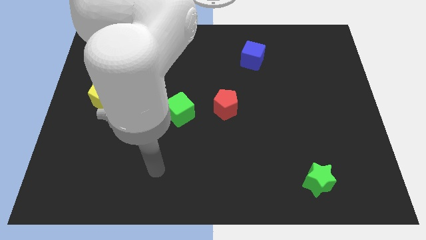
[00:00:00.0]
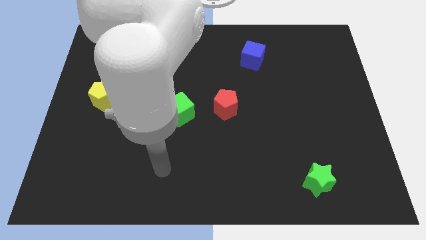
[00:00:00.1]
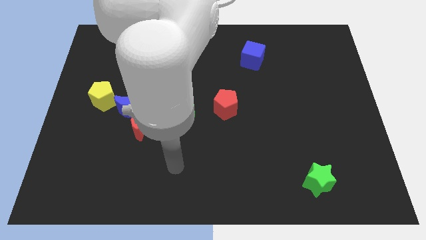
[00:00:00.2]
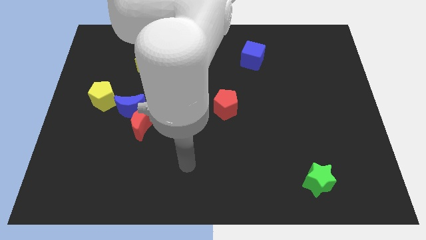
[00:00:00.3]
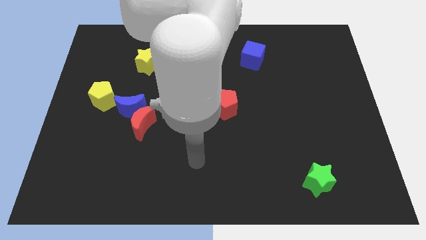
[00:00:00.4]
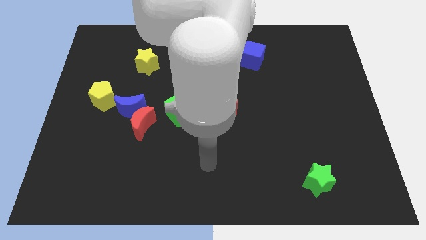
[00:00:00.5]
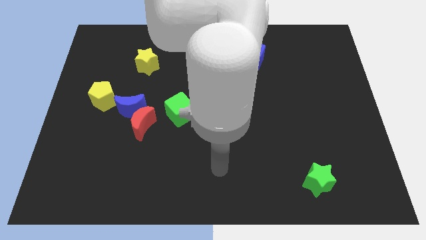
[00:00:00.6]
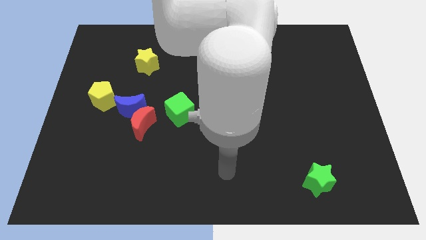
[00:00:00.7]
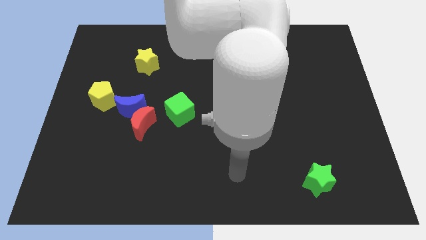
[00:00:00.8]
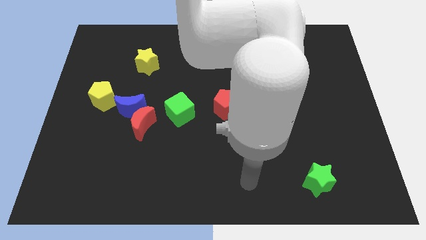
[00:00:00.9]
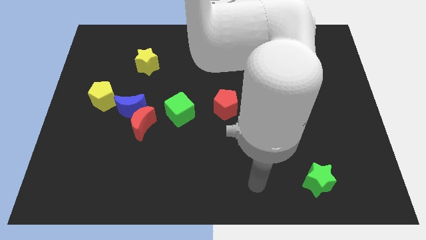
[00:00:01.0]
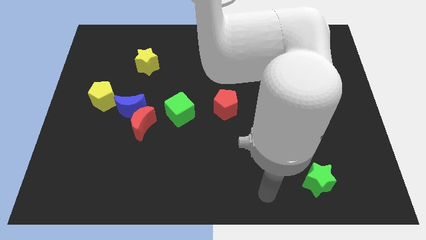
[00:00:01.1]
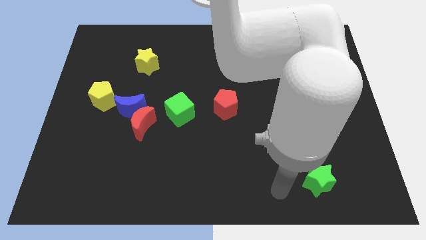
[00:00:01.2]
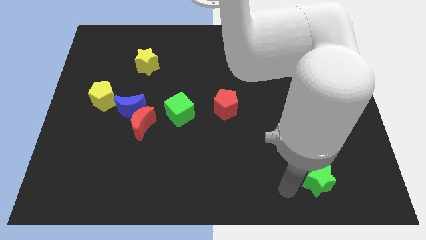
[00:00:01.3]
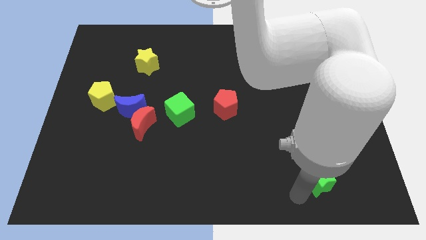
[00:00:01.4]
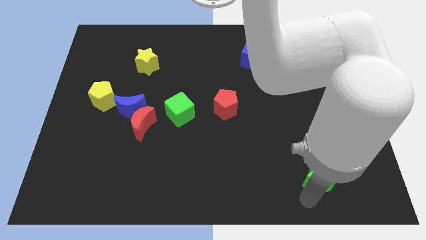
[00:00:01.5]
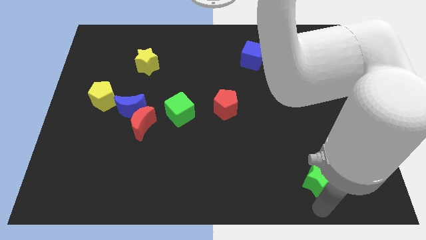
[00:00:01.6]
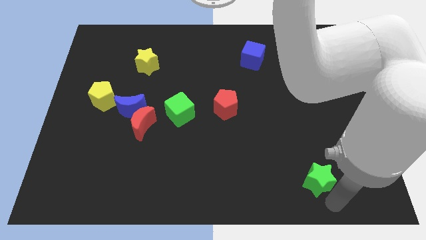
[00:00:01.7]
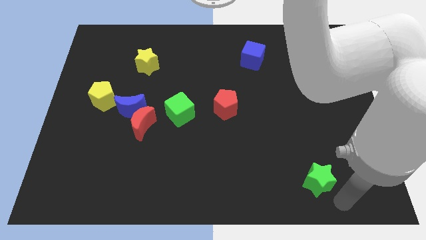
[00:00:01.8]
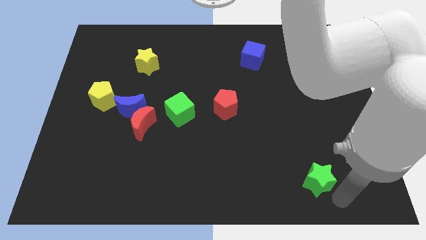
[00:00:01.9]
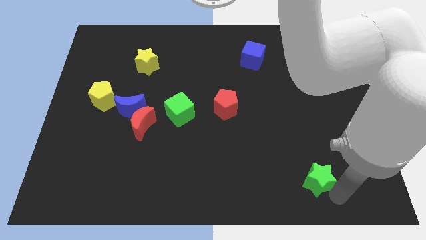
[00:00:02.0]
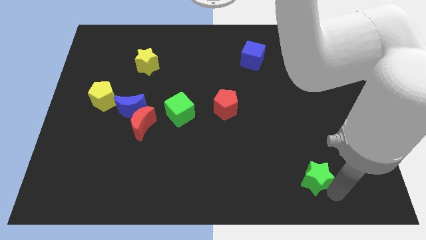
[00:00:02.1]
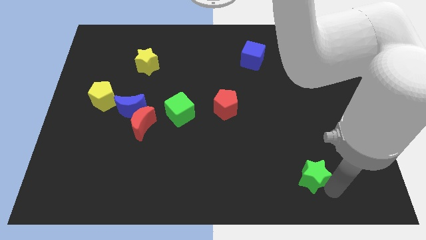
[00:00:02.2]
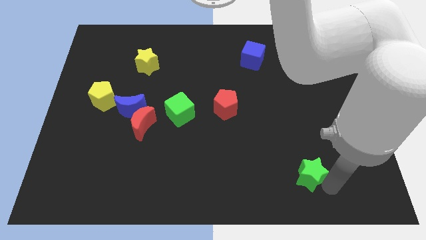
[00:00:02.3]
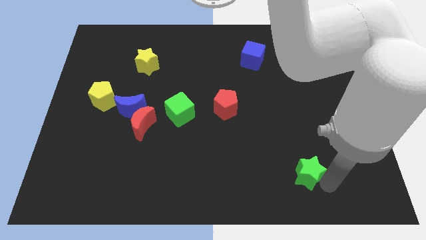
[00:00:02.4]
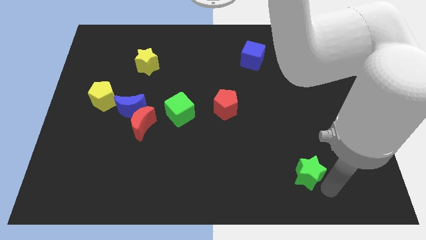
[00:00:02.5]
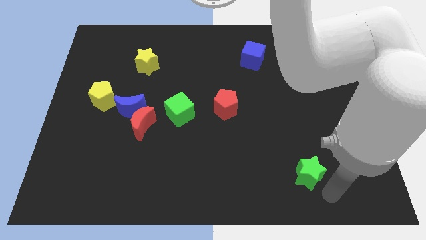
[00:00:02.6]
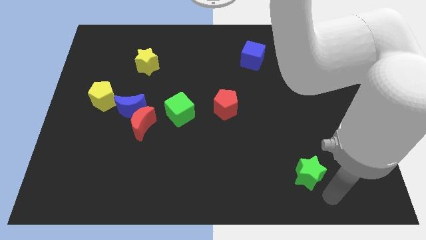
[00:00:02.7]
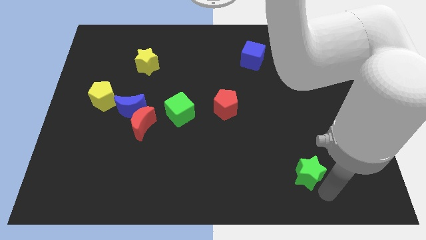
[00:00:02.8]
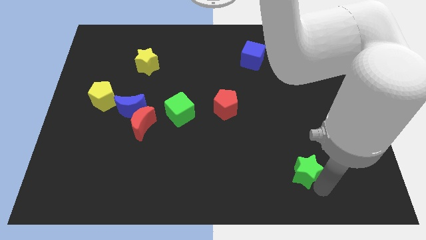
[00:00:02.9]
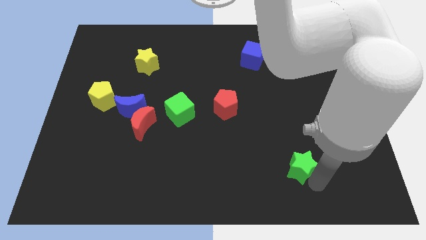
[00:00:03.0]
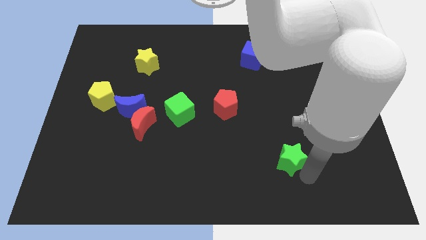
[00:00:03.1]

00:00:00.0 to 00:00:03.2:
slightly push the green star diagonally up and left

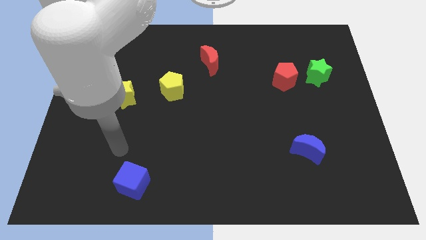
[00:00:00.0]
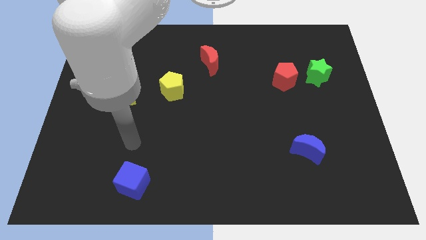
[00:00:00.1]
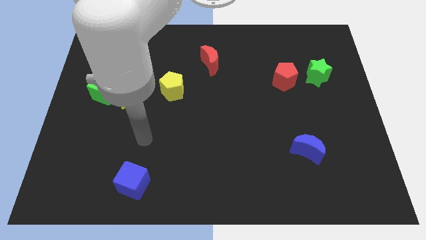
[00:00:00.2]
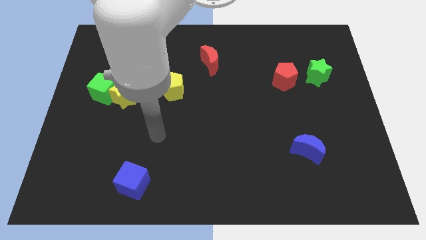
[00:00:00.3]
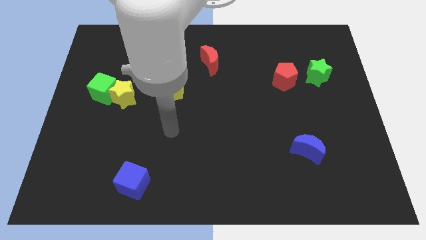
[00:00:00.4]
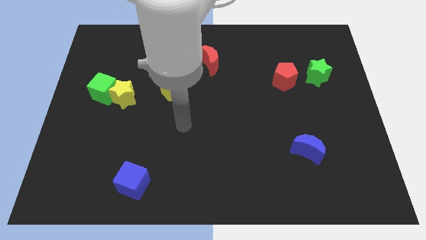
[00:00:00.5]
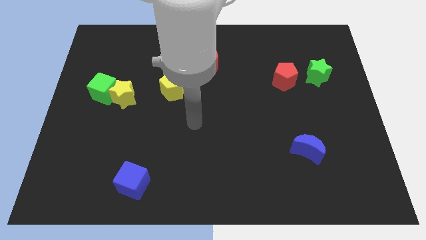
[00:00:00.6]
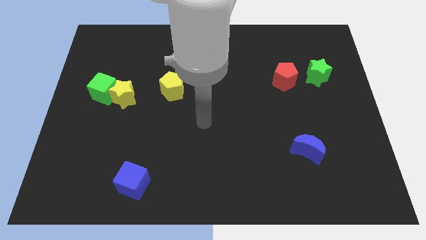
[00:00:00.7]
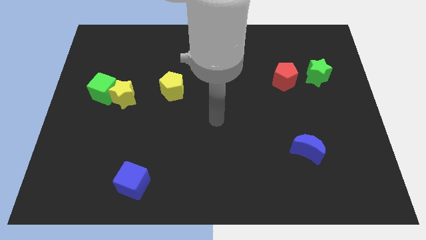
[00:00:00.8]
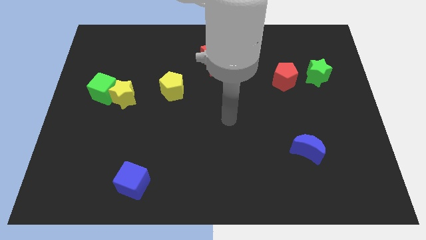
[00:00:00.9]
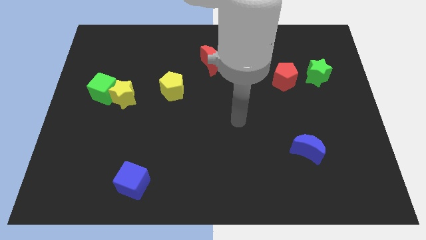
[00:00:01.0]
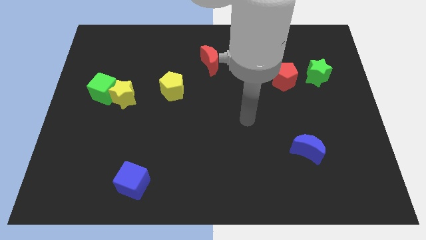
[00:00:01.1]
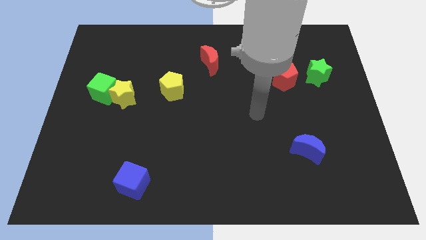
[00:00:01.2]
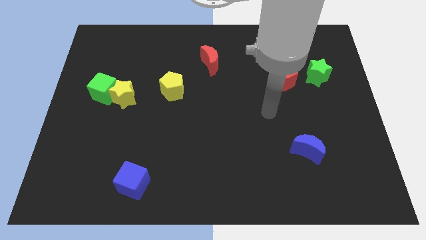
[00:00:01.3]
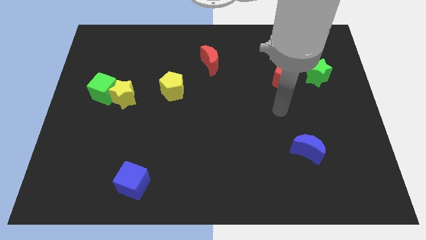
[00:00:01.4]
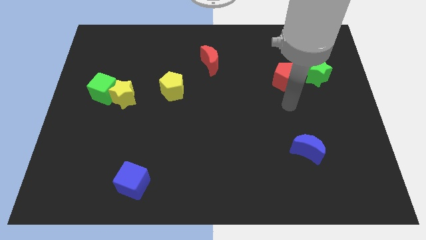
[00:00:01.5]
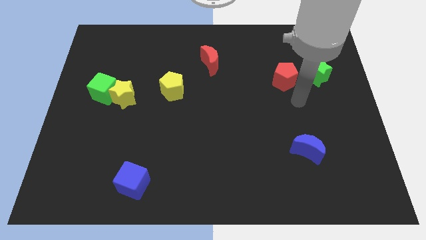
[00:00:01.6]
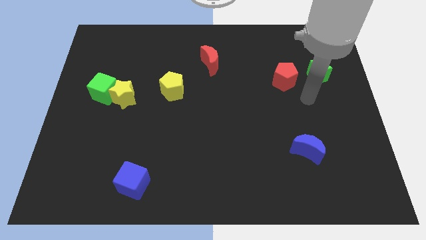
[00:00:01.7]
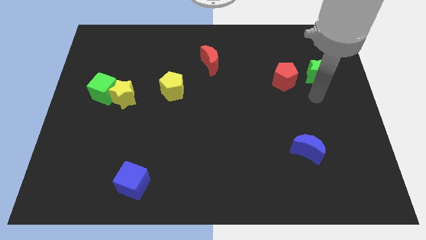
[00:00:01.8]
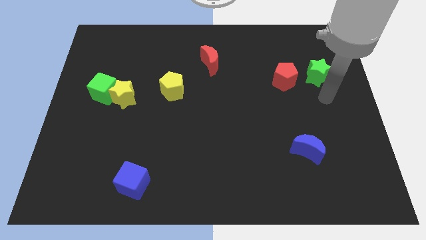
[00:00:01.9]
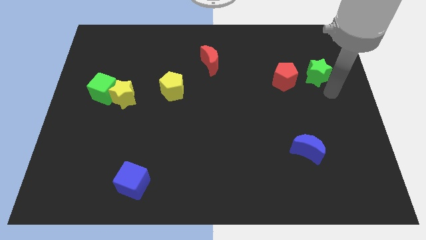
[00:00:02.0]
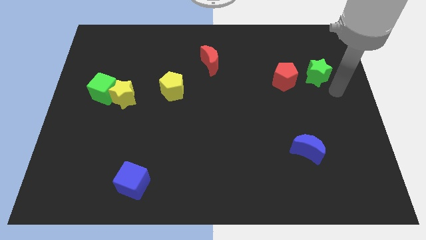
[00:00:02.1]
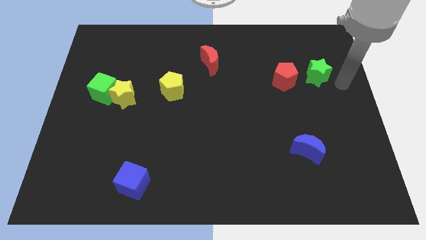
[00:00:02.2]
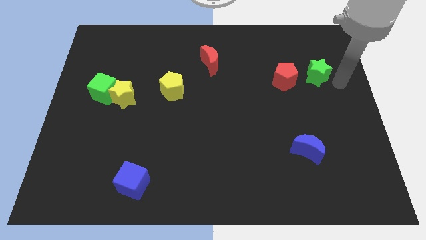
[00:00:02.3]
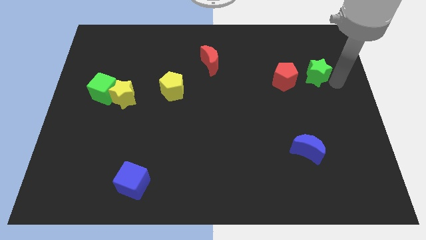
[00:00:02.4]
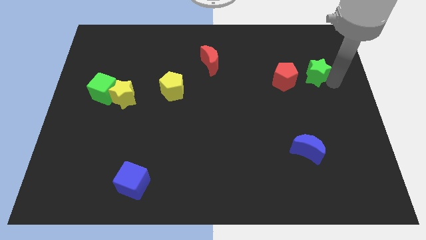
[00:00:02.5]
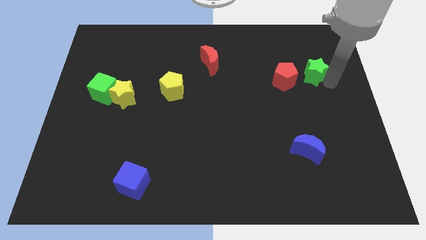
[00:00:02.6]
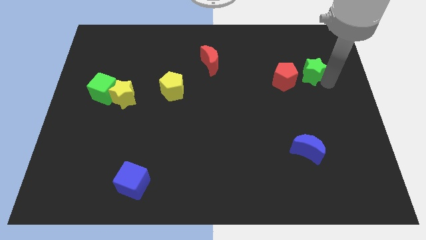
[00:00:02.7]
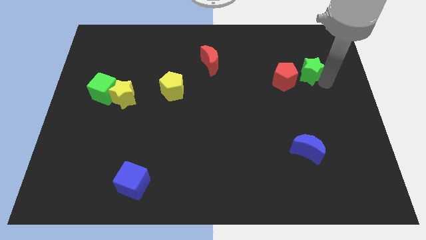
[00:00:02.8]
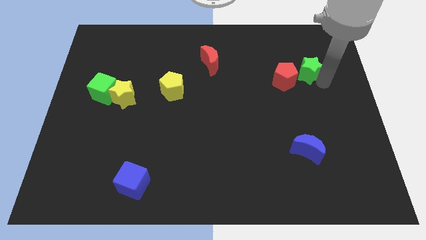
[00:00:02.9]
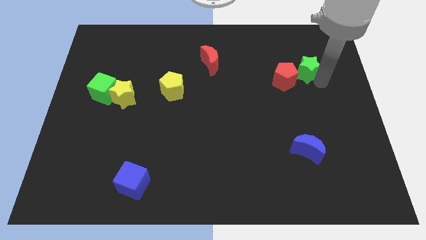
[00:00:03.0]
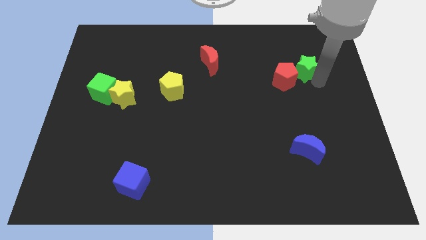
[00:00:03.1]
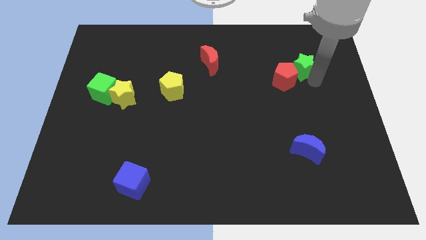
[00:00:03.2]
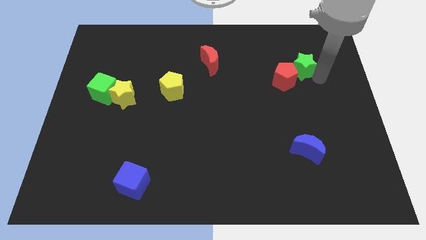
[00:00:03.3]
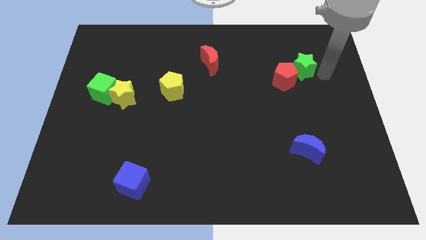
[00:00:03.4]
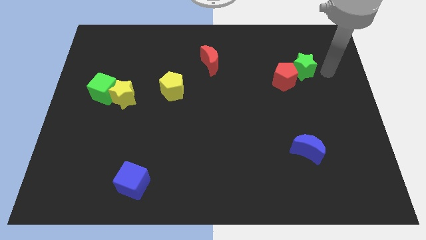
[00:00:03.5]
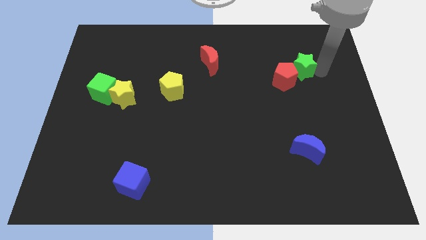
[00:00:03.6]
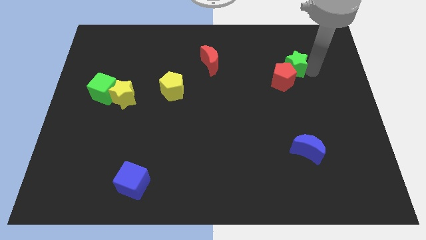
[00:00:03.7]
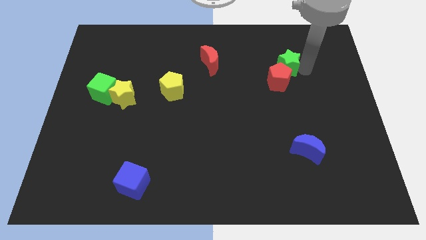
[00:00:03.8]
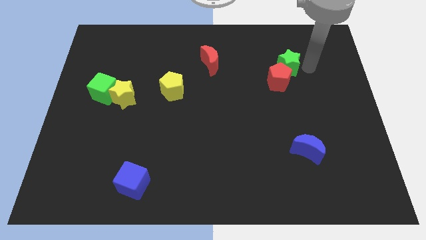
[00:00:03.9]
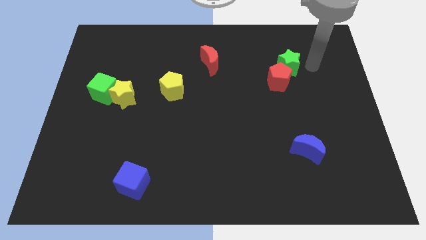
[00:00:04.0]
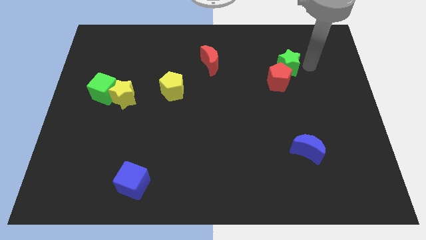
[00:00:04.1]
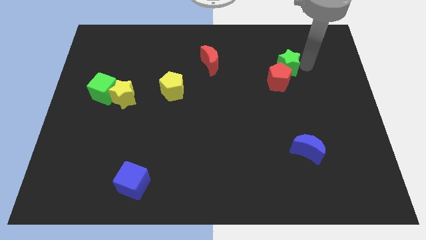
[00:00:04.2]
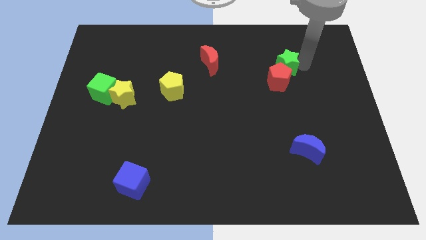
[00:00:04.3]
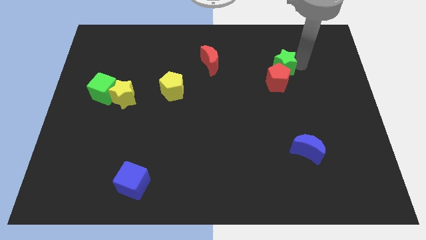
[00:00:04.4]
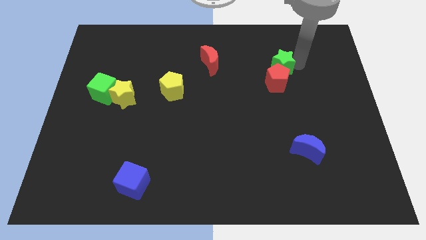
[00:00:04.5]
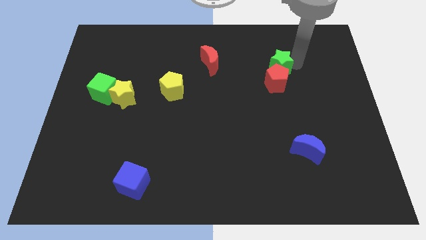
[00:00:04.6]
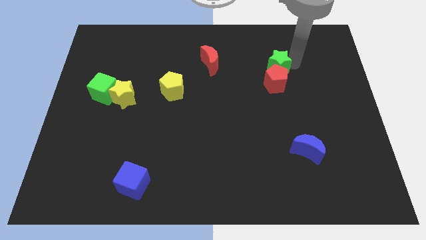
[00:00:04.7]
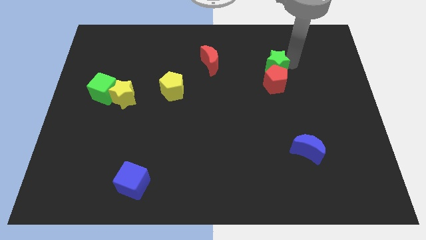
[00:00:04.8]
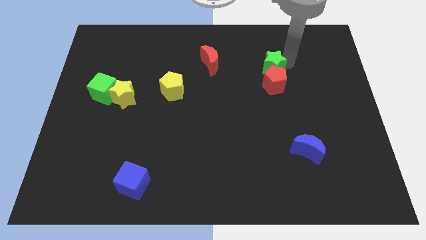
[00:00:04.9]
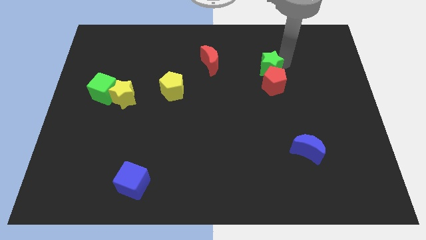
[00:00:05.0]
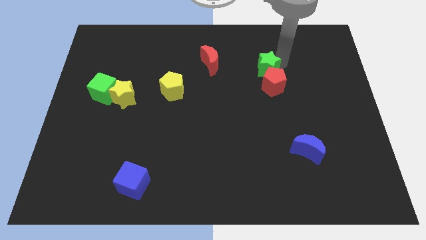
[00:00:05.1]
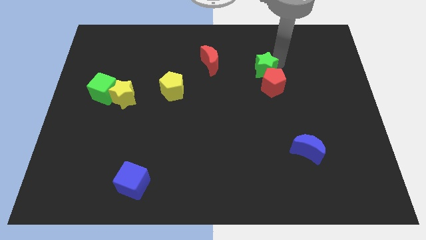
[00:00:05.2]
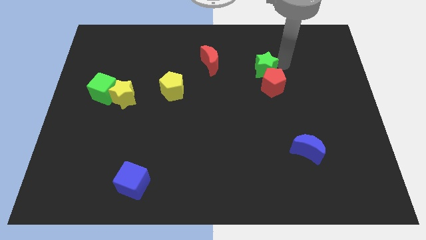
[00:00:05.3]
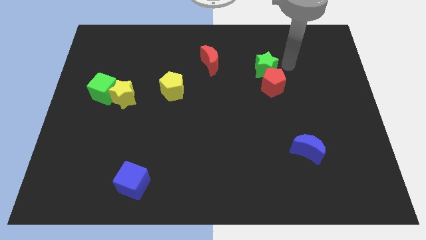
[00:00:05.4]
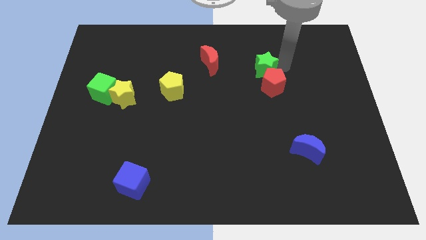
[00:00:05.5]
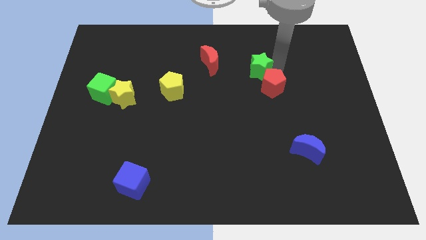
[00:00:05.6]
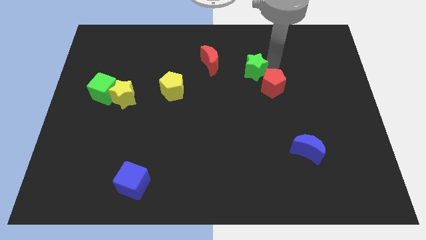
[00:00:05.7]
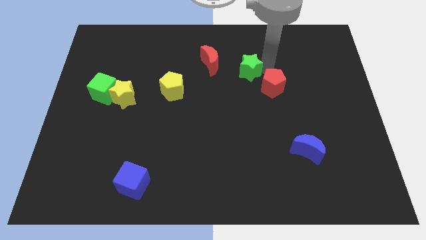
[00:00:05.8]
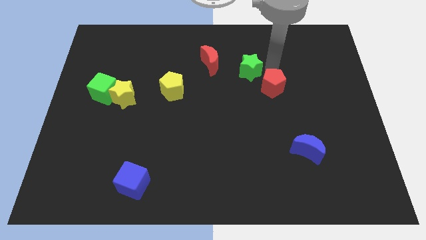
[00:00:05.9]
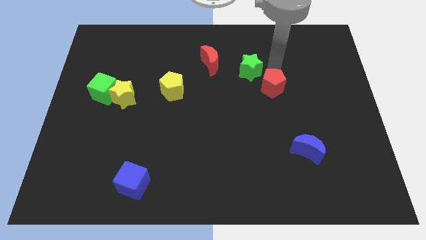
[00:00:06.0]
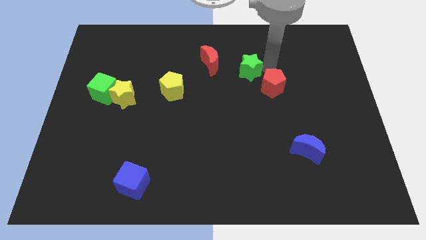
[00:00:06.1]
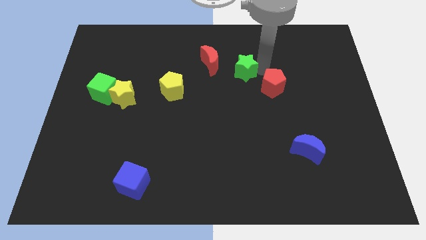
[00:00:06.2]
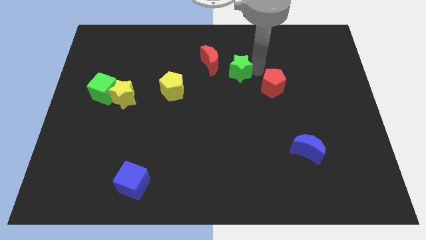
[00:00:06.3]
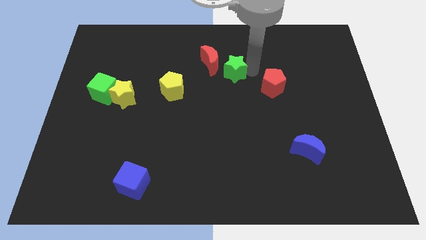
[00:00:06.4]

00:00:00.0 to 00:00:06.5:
push the green star to the left
